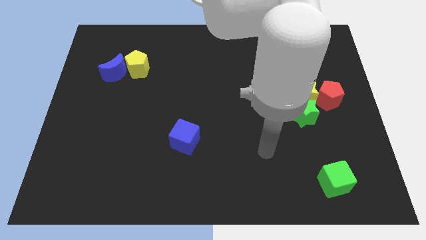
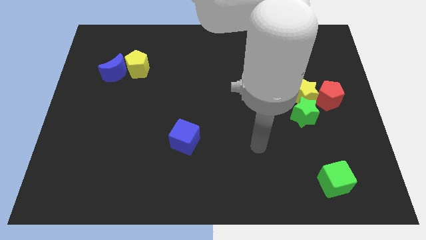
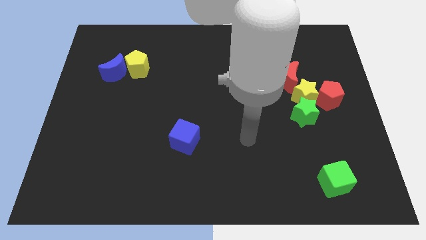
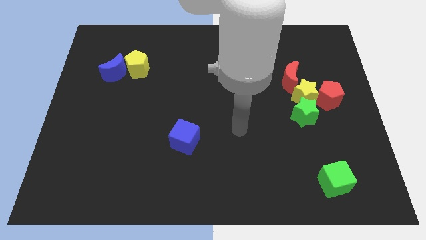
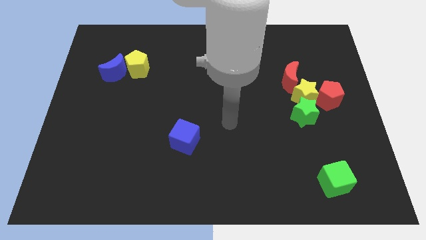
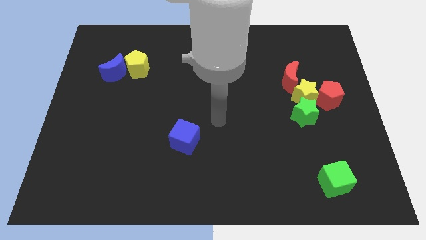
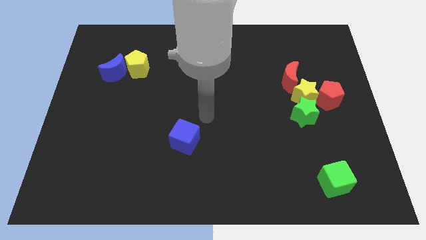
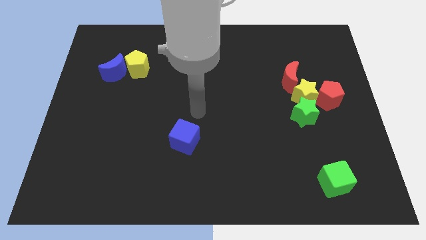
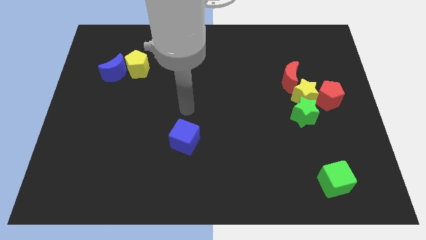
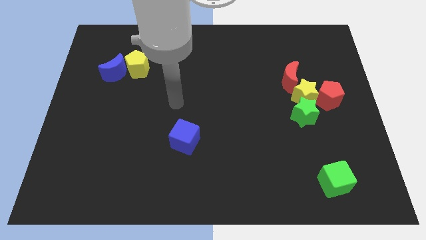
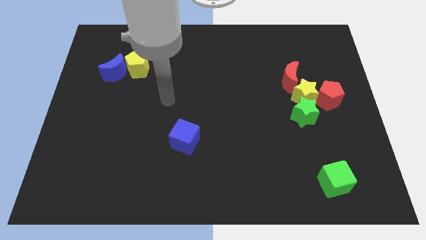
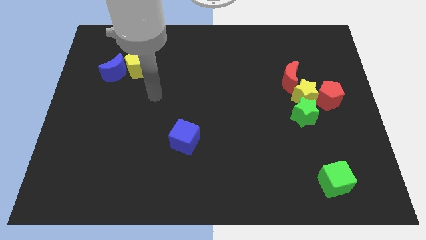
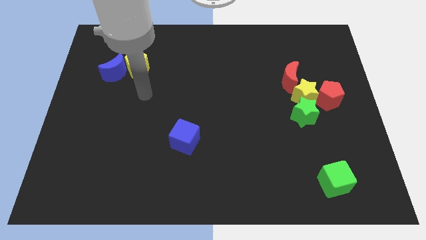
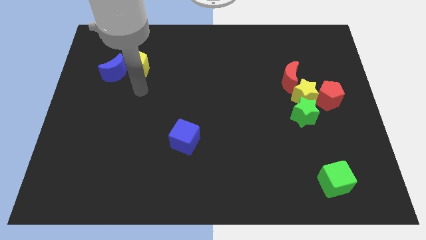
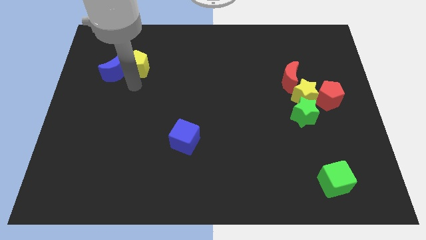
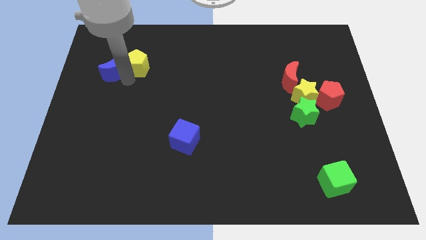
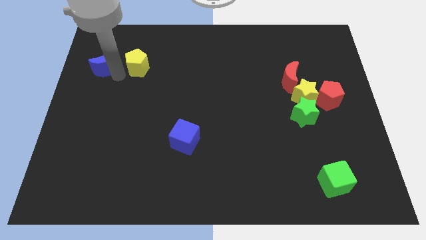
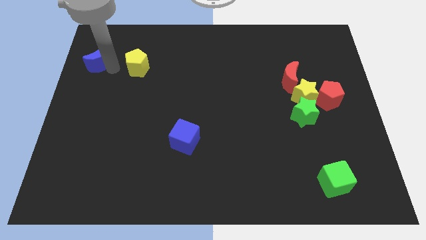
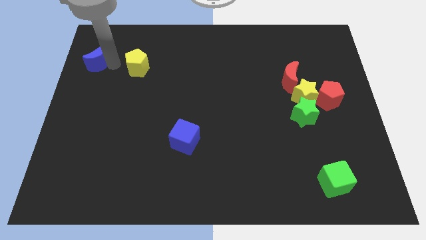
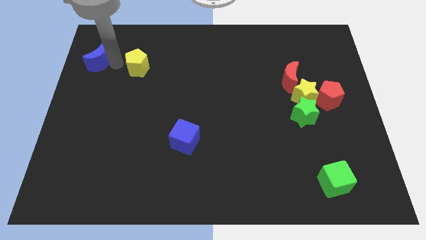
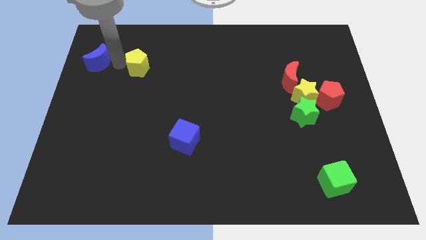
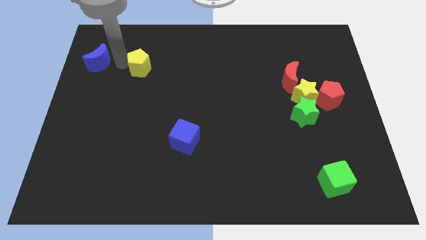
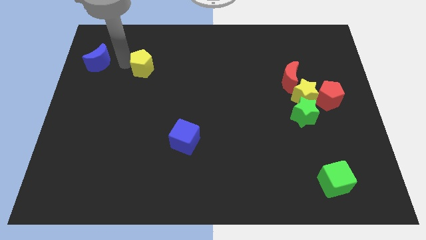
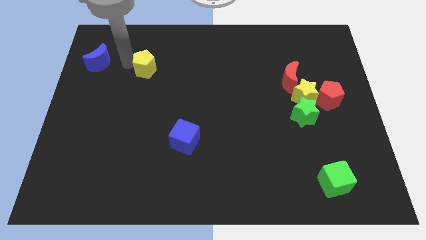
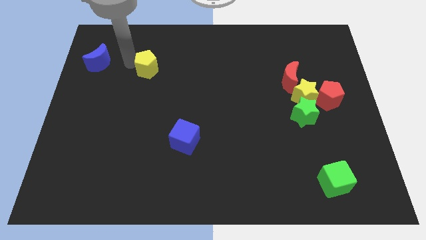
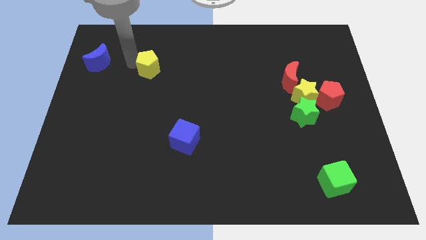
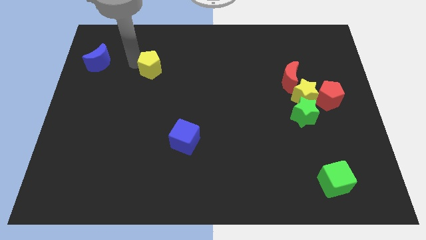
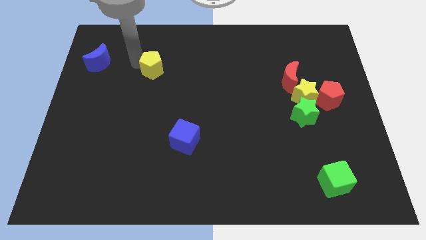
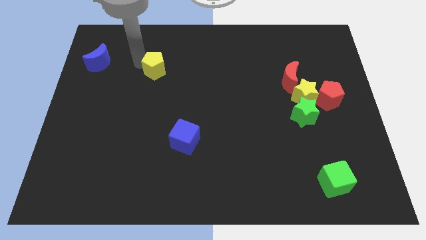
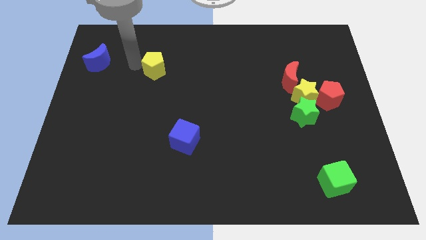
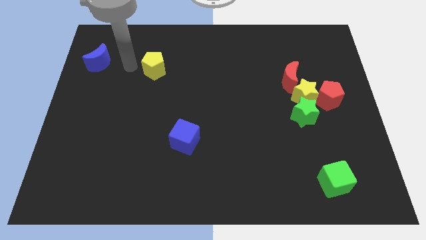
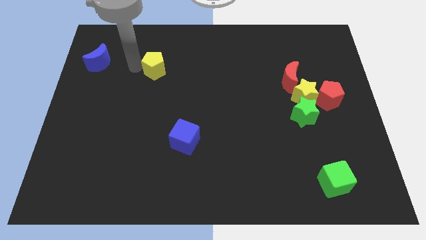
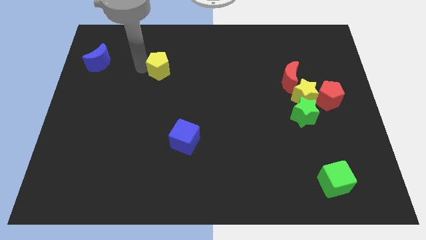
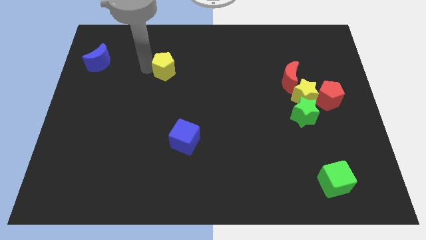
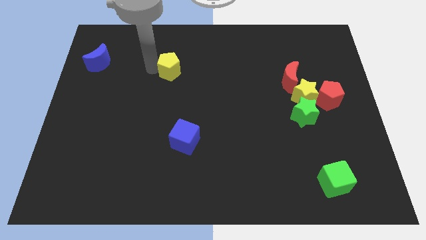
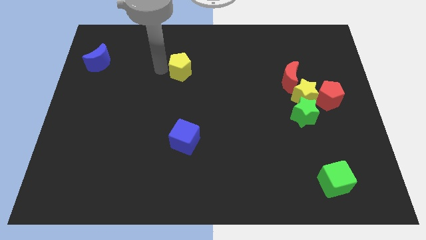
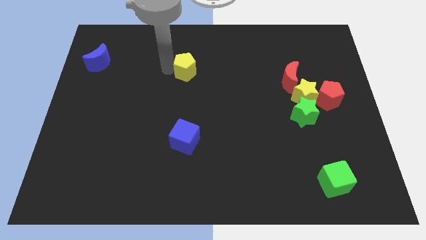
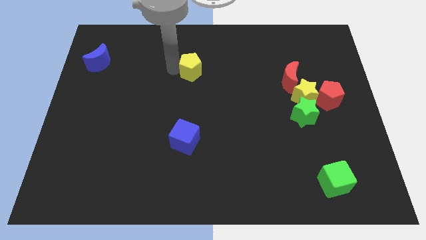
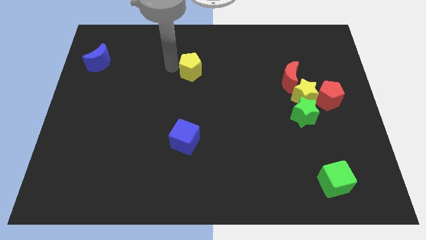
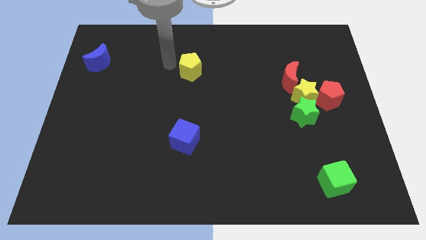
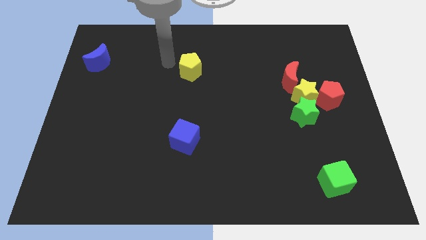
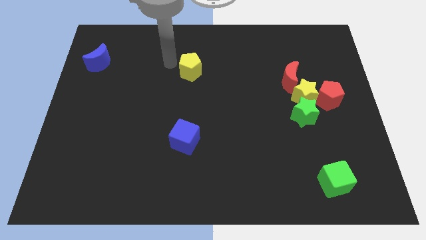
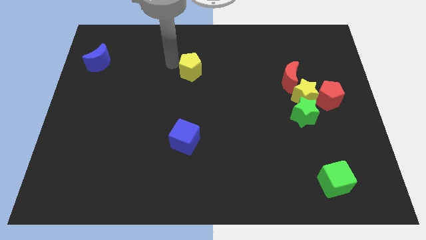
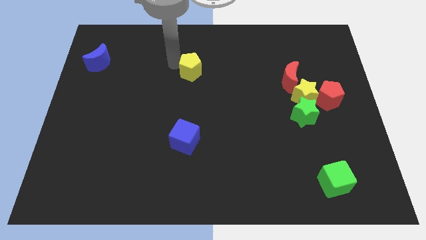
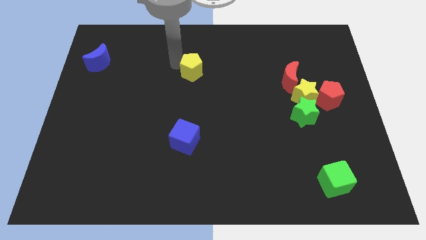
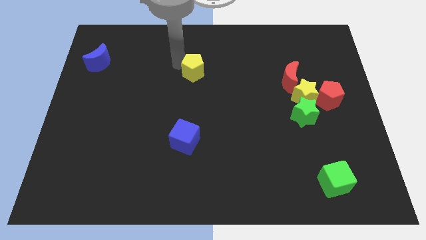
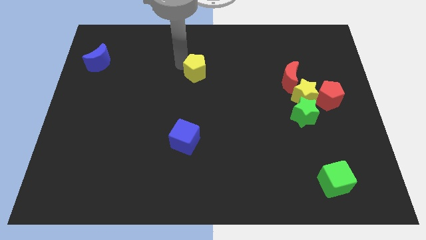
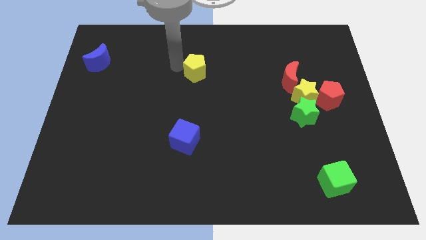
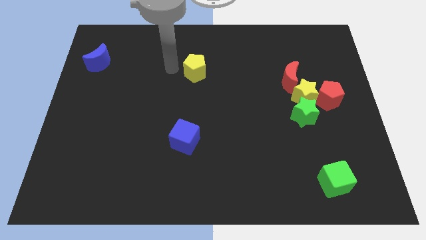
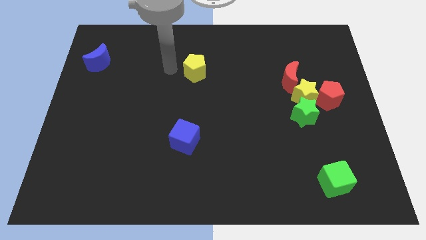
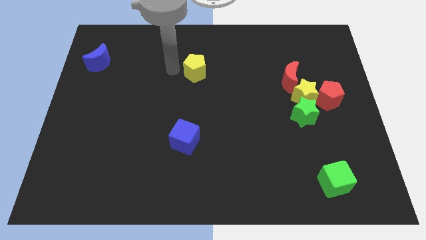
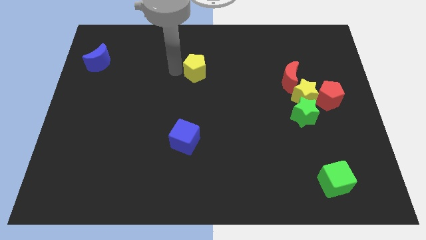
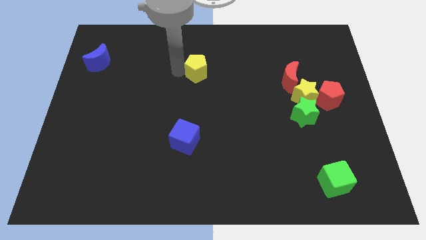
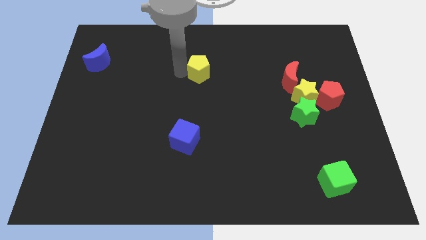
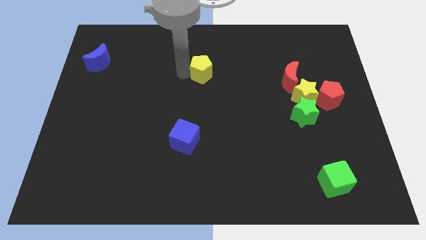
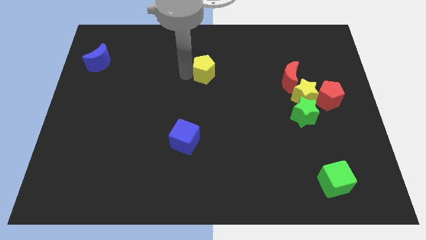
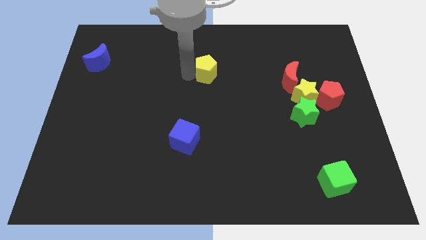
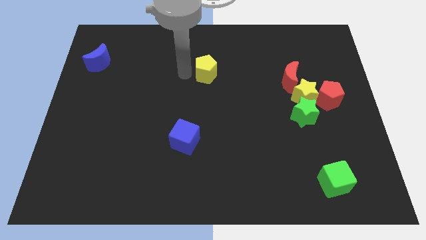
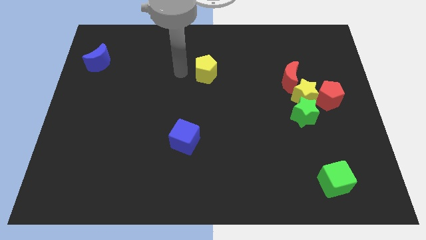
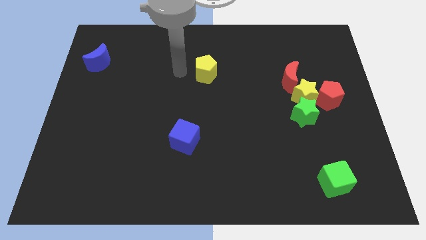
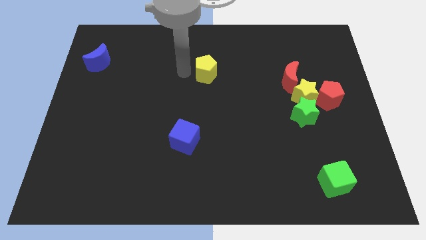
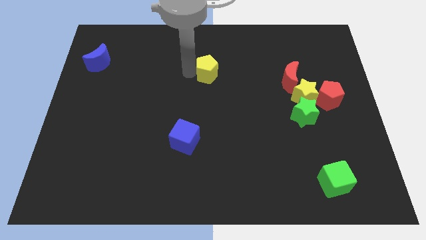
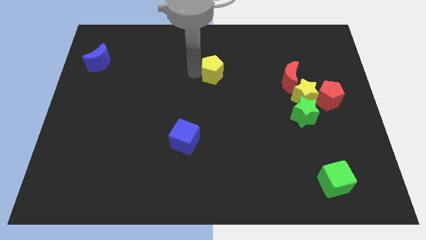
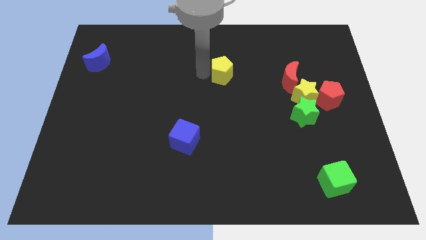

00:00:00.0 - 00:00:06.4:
push the yellow pentagon right

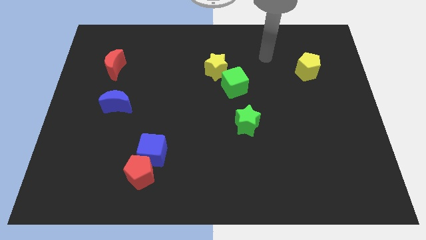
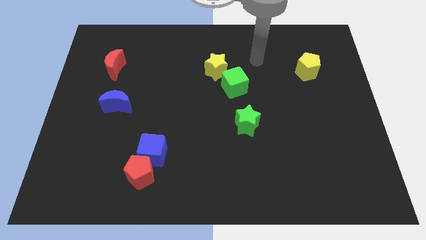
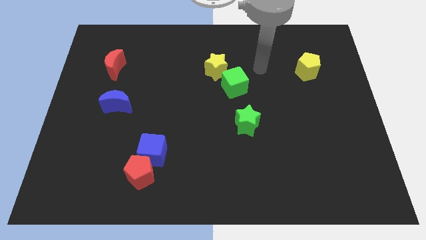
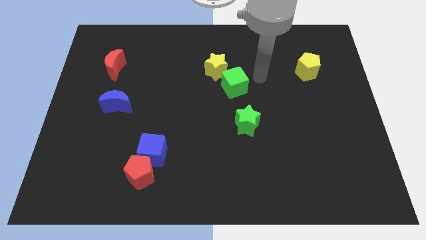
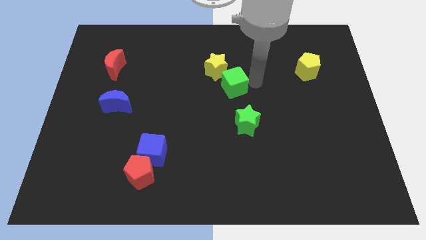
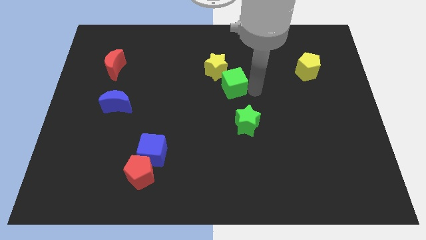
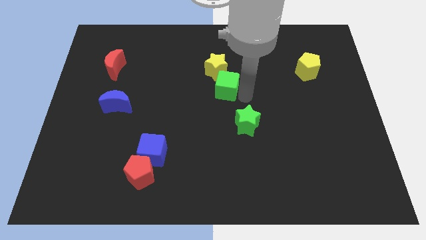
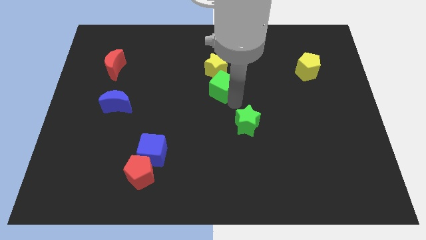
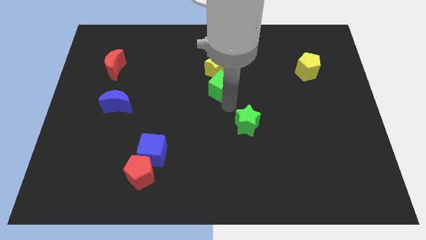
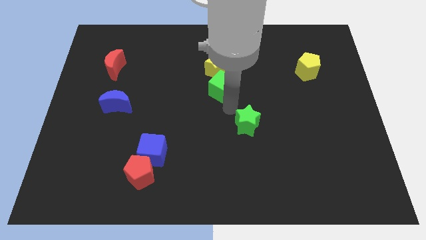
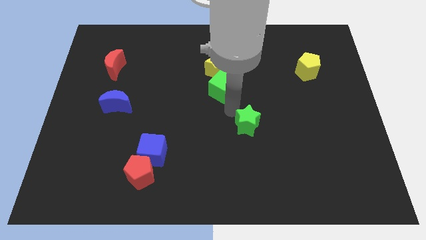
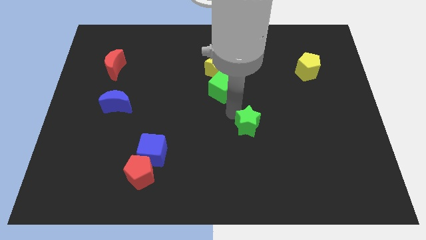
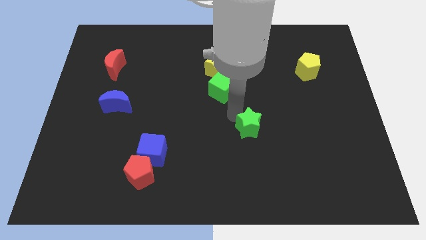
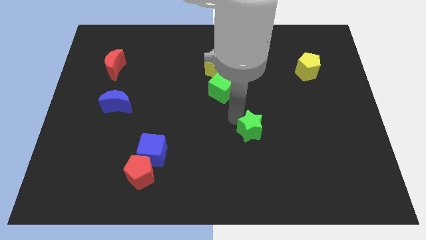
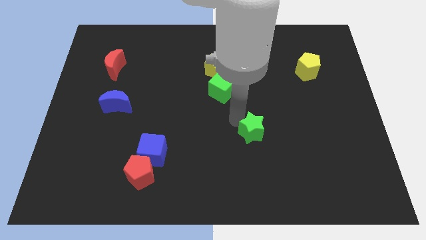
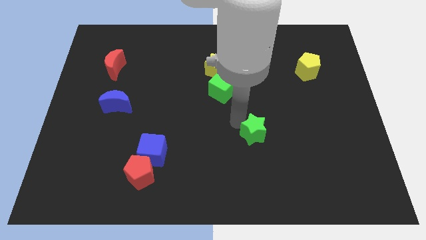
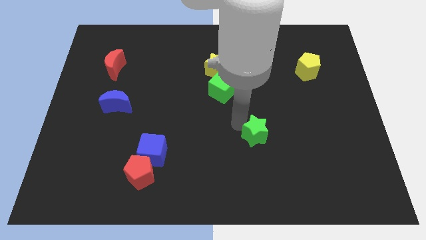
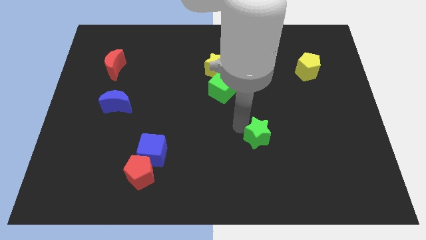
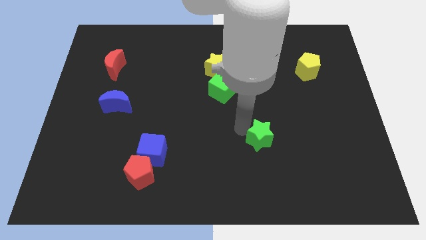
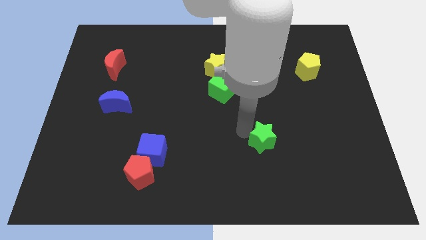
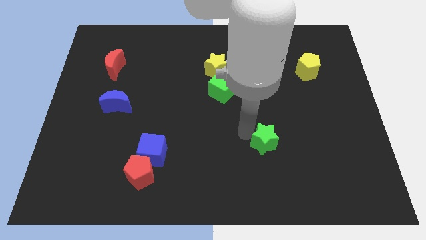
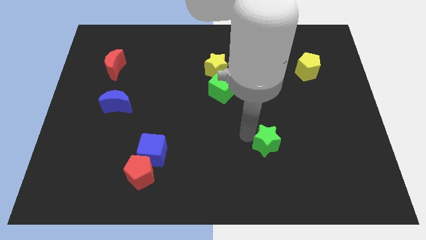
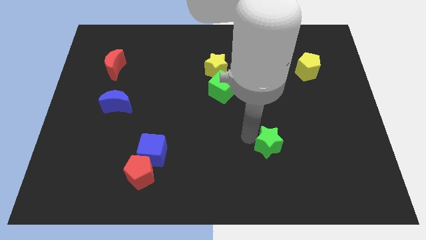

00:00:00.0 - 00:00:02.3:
move the green star slightly down and right
